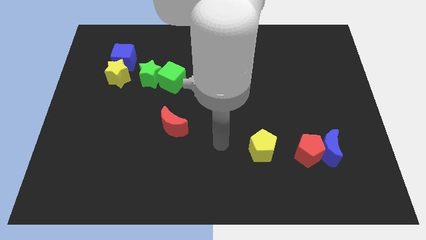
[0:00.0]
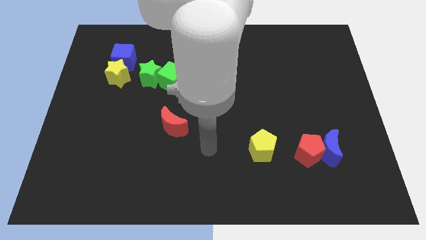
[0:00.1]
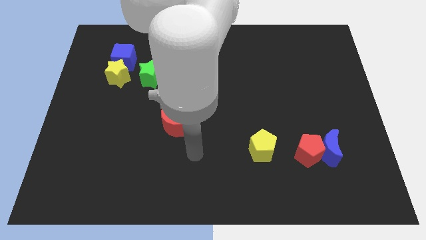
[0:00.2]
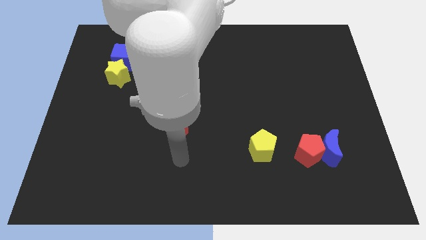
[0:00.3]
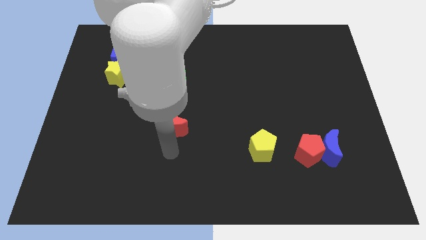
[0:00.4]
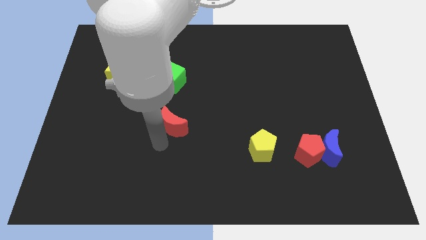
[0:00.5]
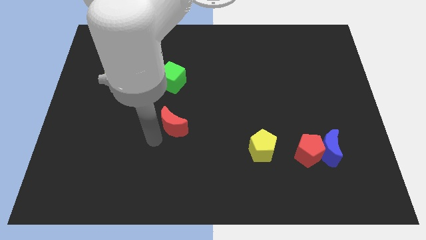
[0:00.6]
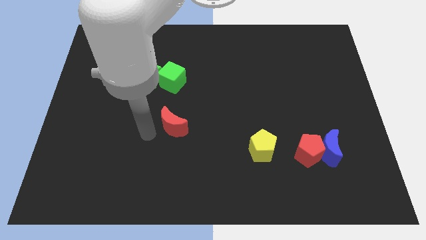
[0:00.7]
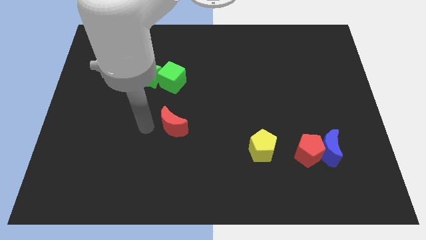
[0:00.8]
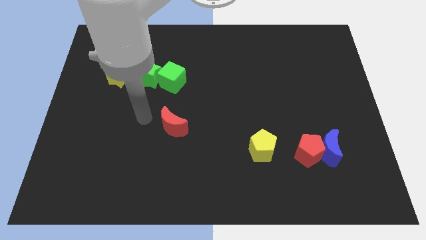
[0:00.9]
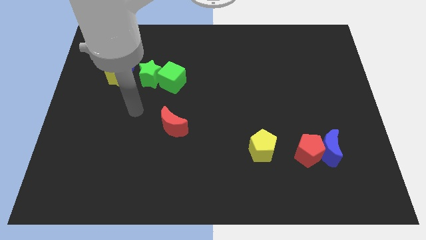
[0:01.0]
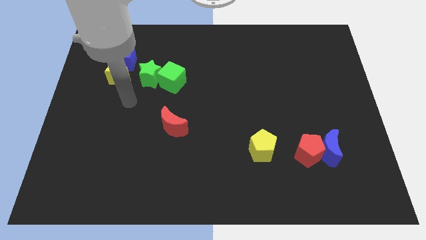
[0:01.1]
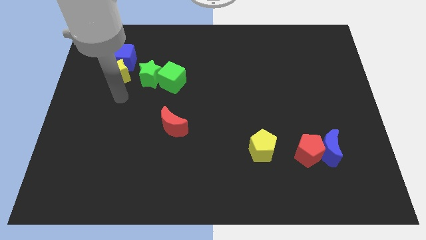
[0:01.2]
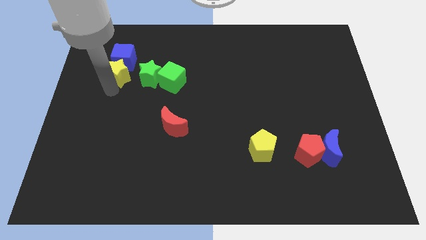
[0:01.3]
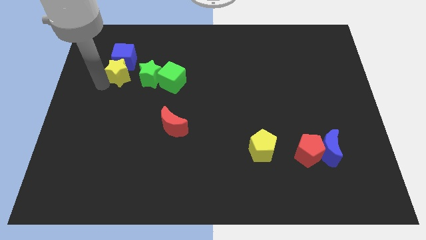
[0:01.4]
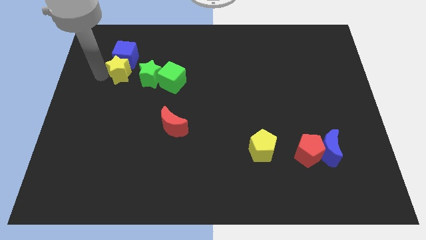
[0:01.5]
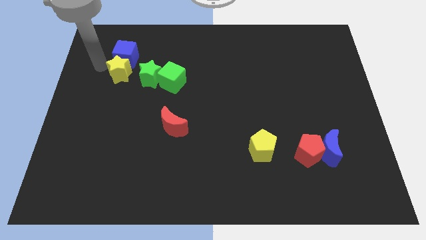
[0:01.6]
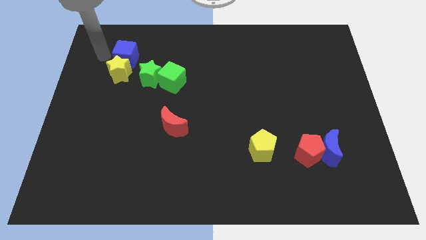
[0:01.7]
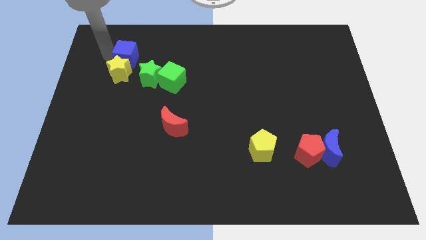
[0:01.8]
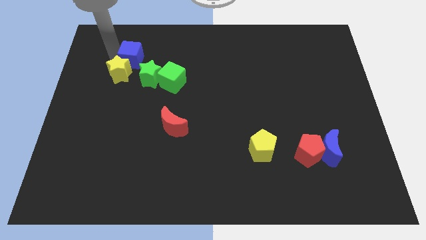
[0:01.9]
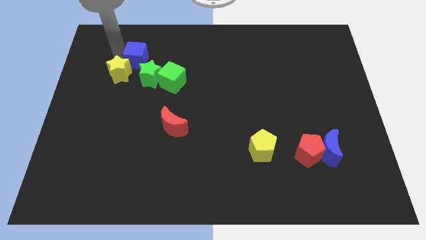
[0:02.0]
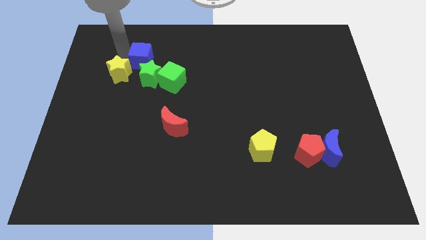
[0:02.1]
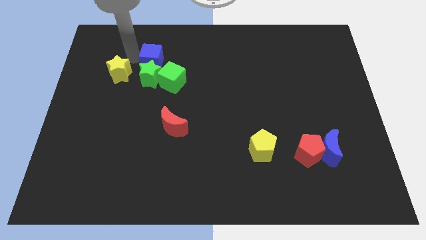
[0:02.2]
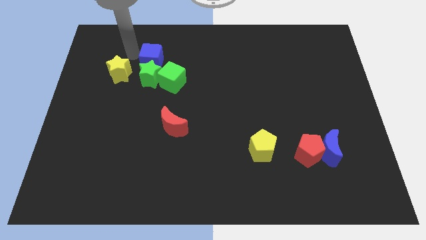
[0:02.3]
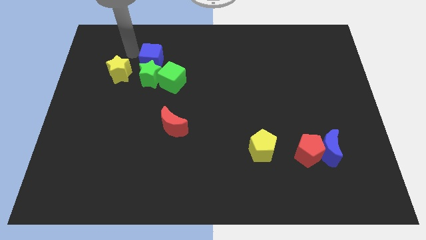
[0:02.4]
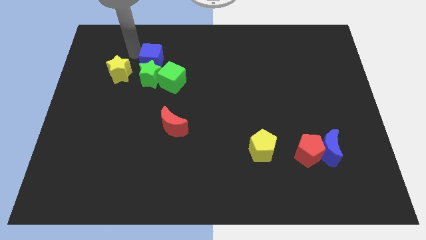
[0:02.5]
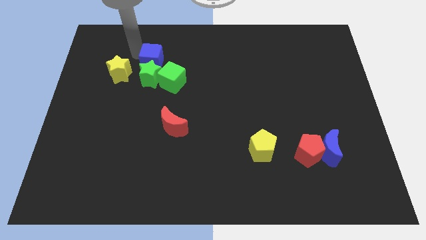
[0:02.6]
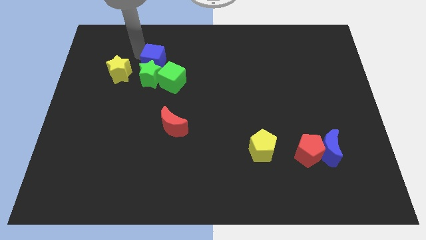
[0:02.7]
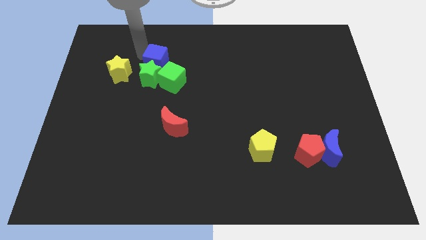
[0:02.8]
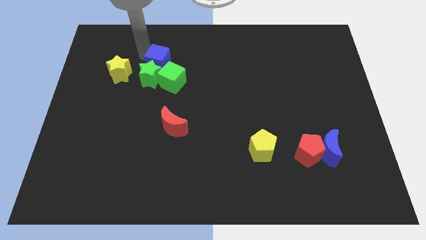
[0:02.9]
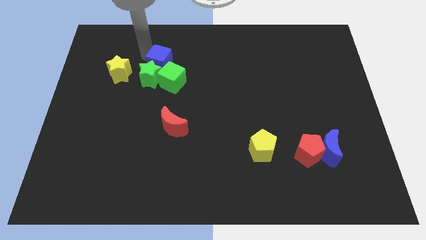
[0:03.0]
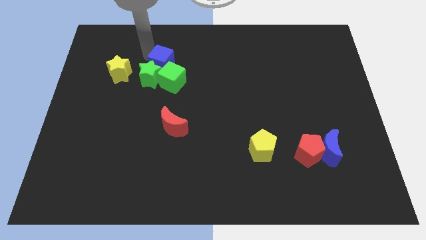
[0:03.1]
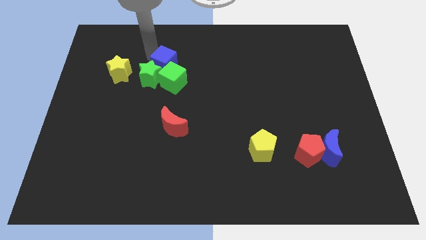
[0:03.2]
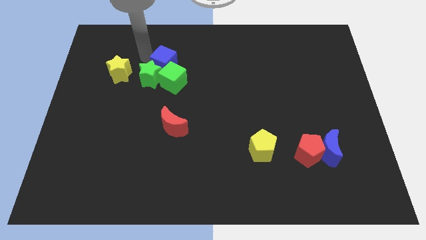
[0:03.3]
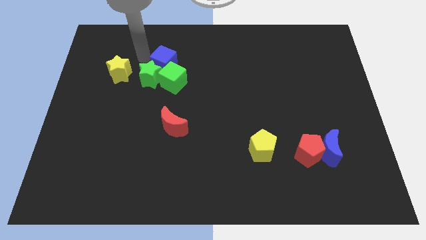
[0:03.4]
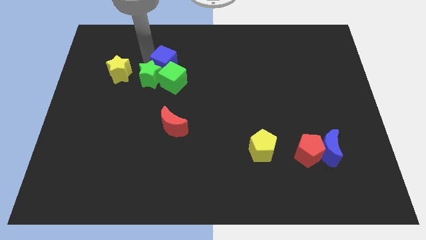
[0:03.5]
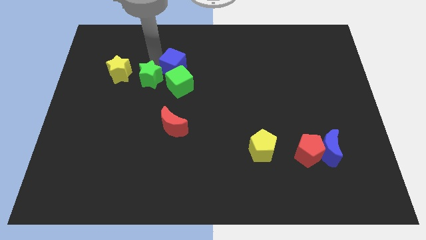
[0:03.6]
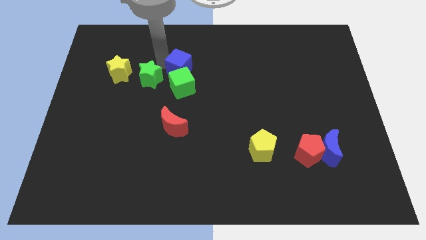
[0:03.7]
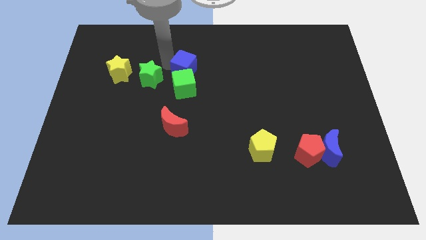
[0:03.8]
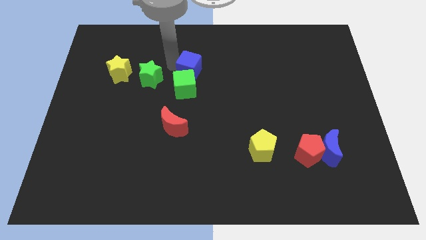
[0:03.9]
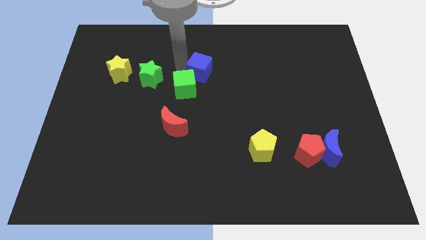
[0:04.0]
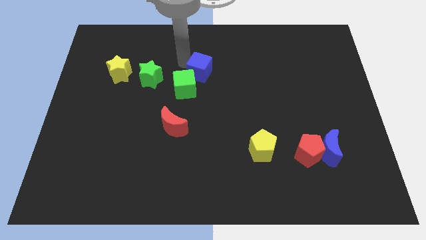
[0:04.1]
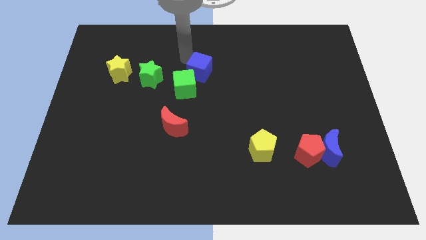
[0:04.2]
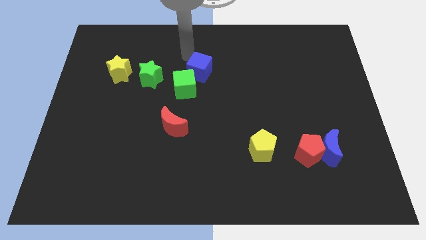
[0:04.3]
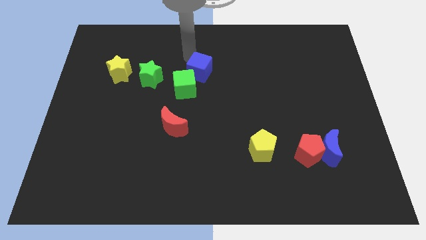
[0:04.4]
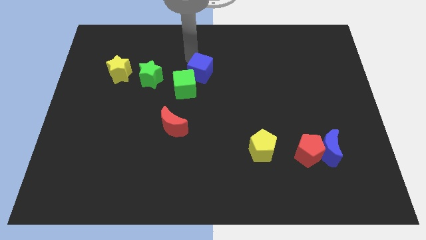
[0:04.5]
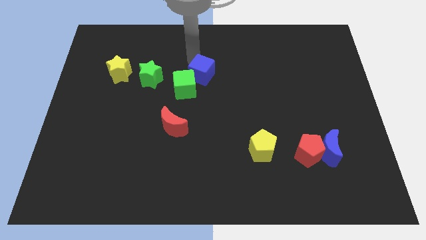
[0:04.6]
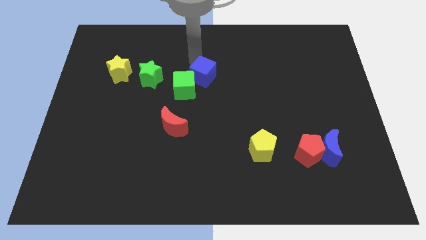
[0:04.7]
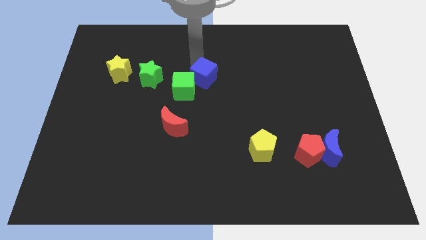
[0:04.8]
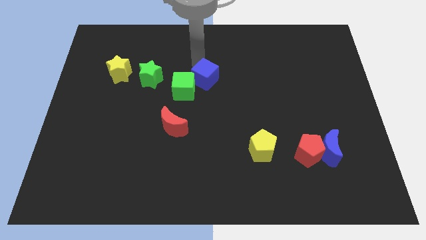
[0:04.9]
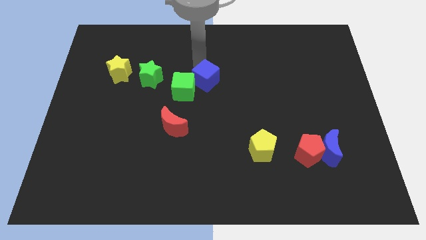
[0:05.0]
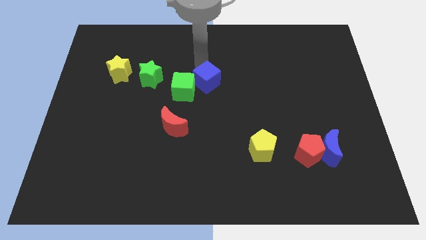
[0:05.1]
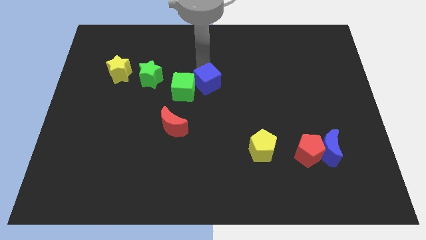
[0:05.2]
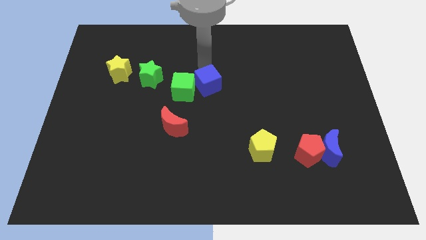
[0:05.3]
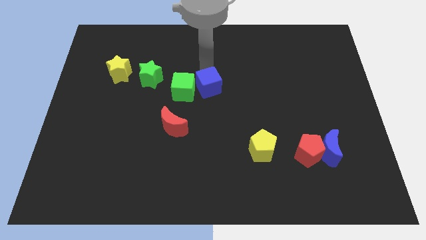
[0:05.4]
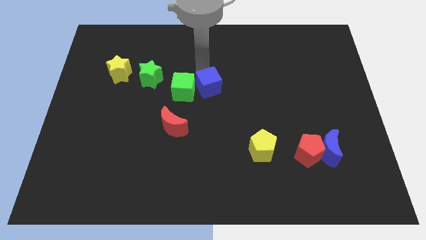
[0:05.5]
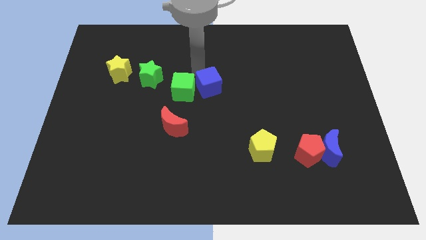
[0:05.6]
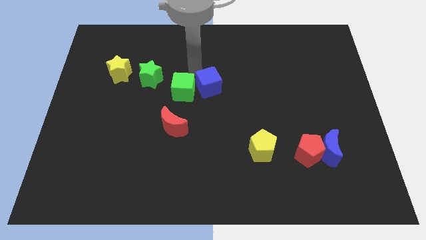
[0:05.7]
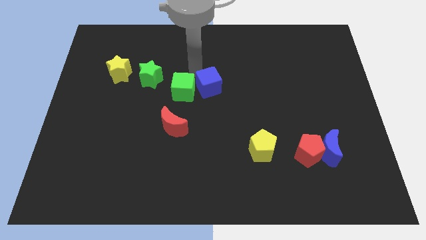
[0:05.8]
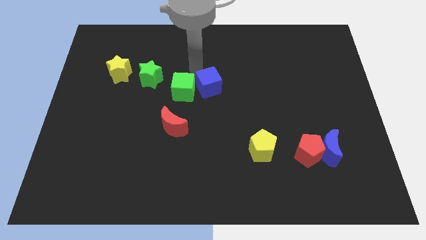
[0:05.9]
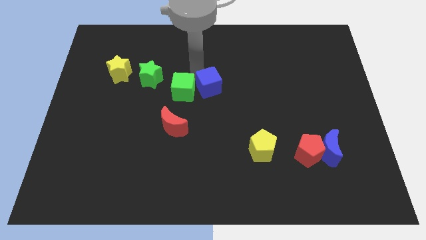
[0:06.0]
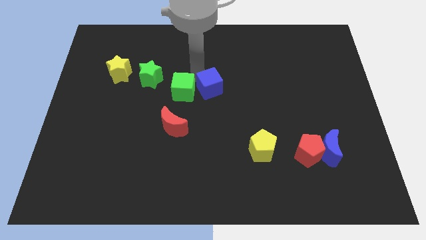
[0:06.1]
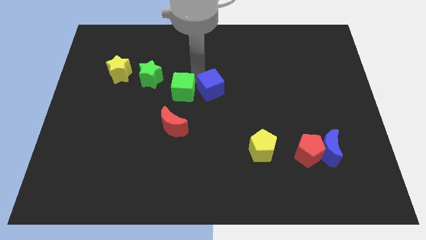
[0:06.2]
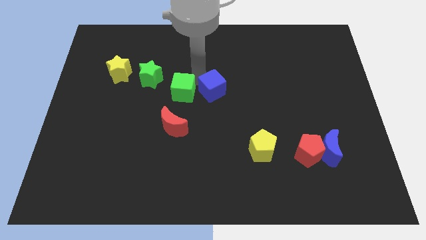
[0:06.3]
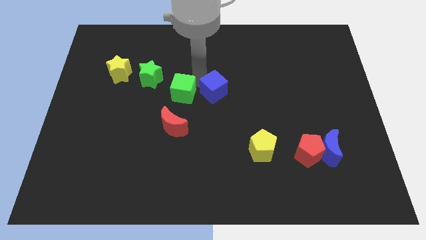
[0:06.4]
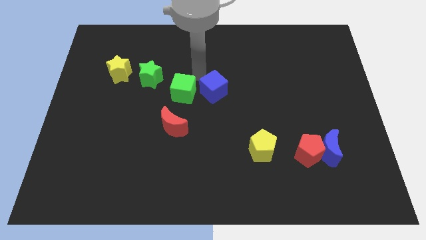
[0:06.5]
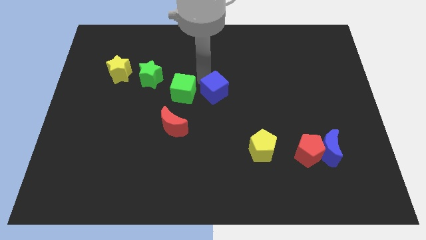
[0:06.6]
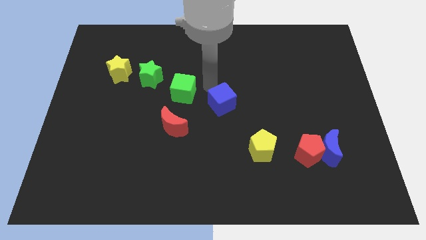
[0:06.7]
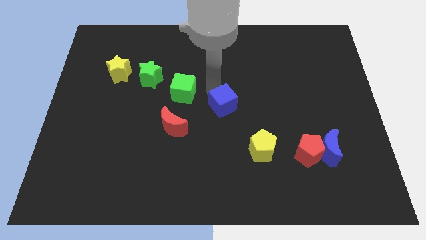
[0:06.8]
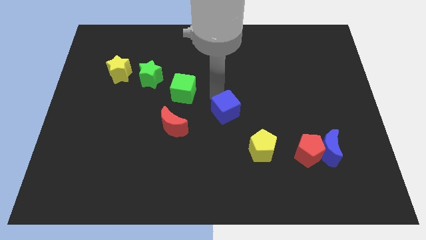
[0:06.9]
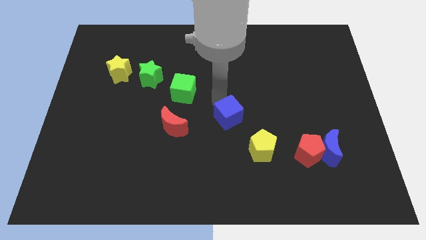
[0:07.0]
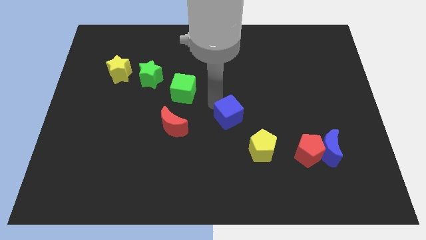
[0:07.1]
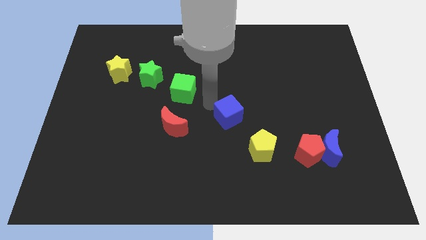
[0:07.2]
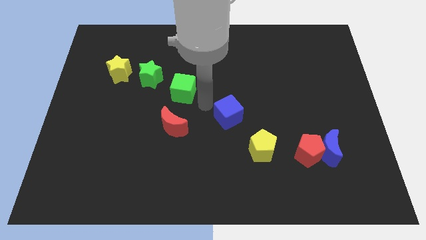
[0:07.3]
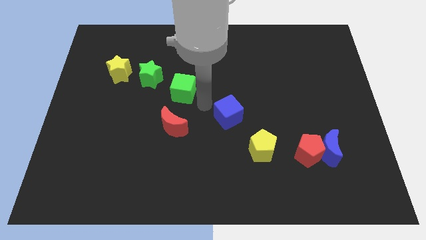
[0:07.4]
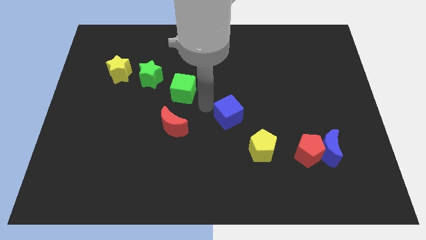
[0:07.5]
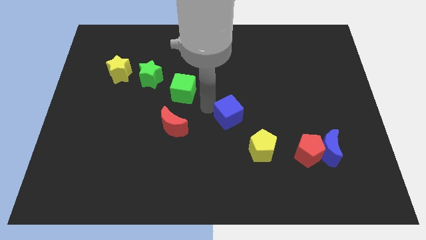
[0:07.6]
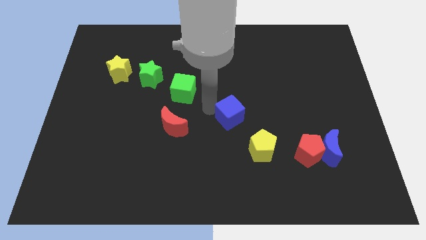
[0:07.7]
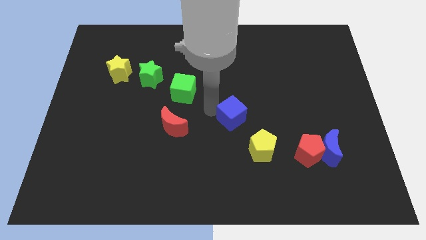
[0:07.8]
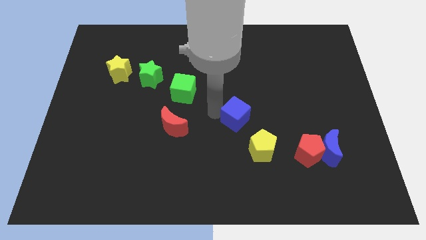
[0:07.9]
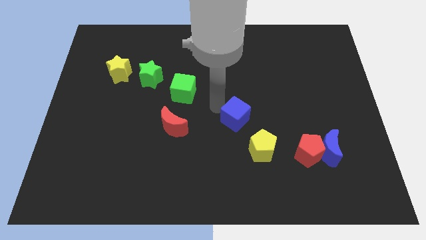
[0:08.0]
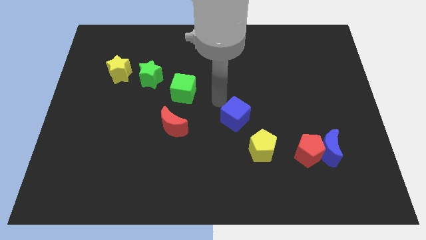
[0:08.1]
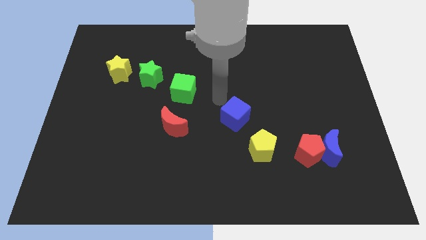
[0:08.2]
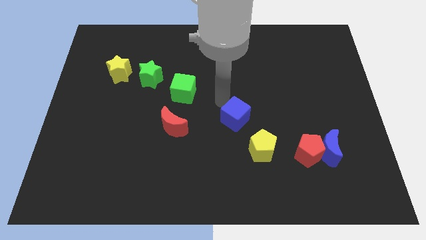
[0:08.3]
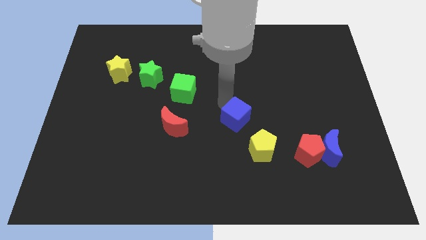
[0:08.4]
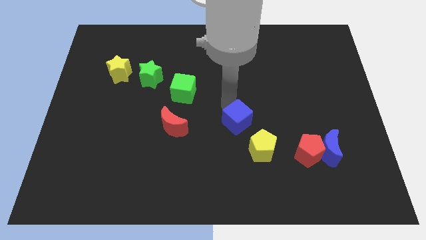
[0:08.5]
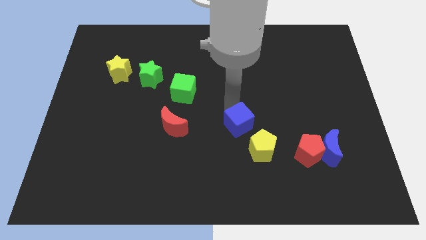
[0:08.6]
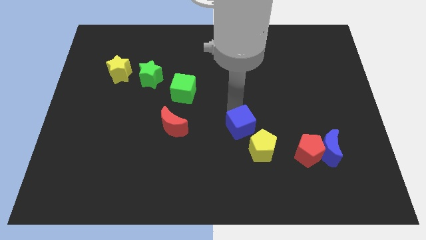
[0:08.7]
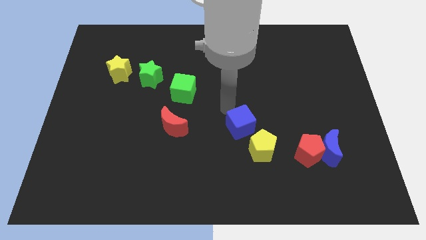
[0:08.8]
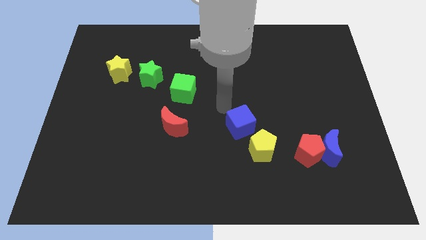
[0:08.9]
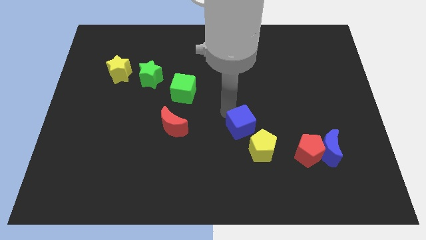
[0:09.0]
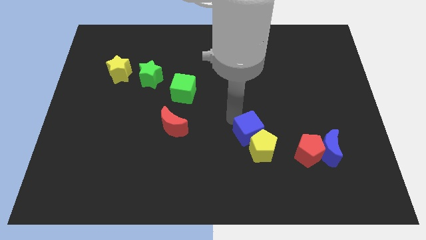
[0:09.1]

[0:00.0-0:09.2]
push the blue cube to the yellow pentagon
